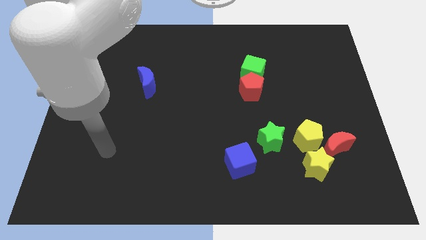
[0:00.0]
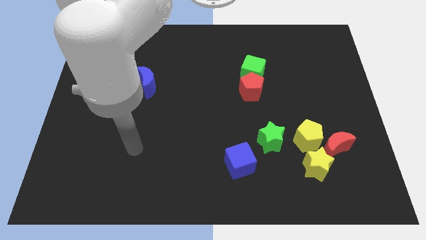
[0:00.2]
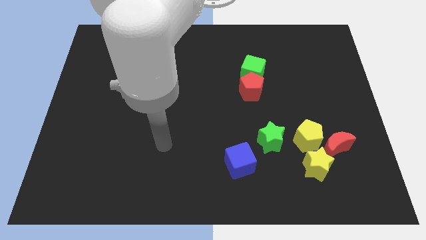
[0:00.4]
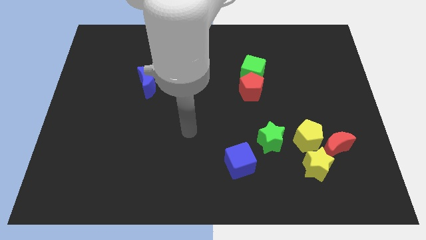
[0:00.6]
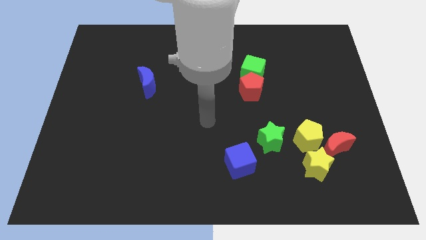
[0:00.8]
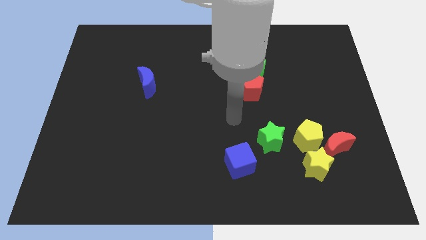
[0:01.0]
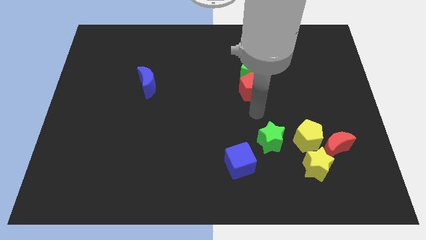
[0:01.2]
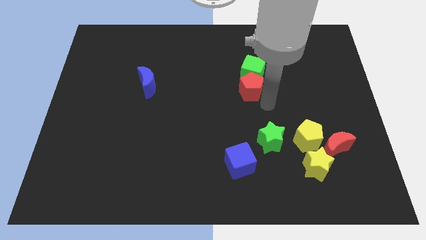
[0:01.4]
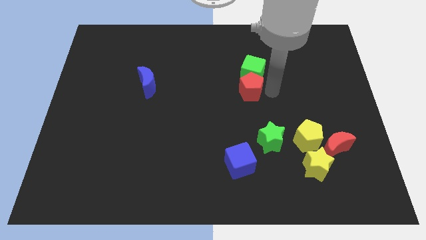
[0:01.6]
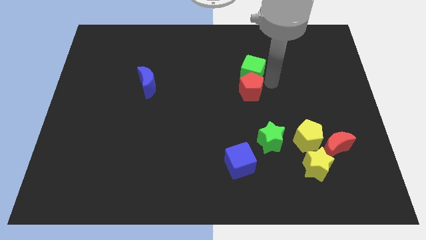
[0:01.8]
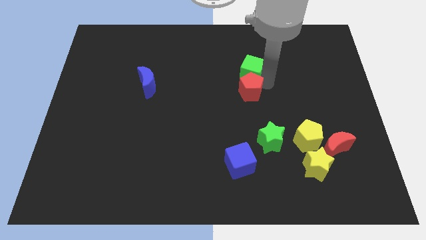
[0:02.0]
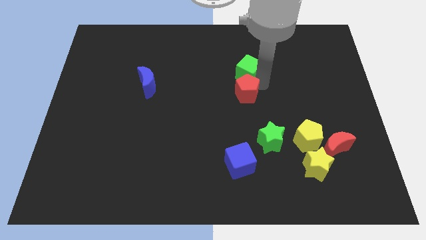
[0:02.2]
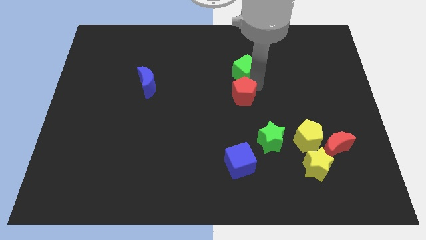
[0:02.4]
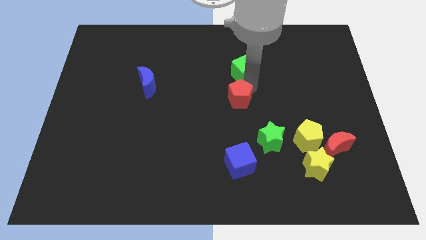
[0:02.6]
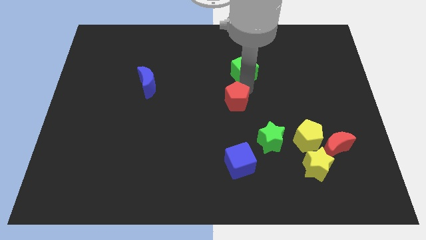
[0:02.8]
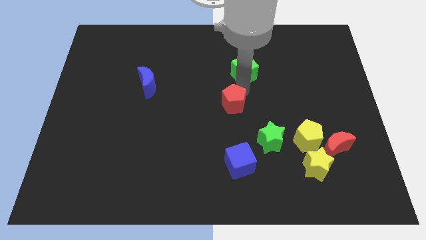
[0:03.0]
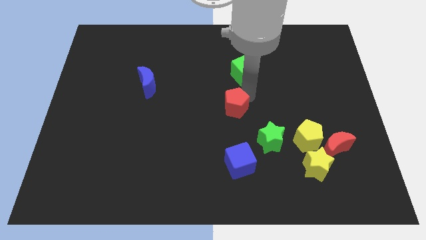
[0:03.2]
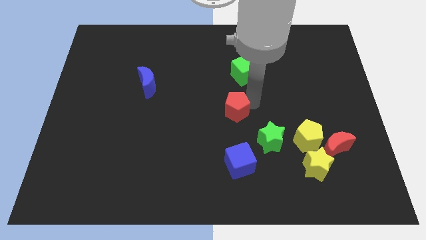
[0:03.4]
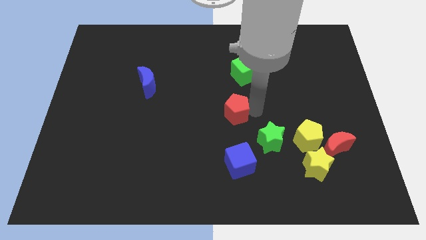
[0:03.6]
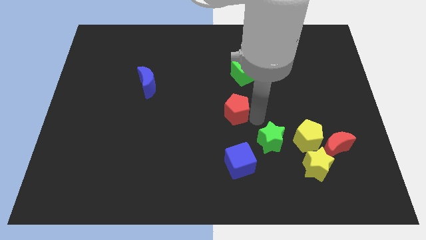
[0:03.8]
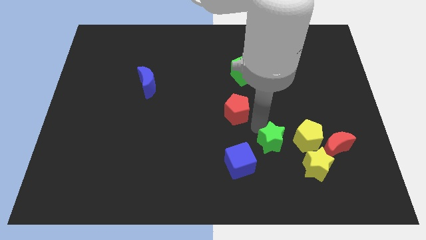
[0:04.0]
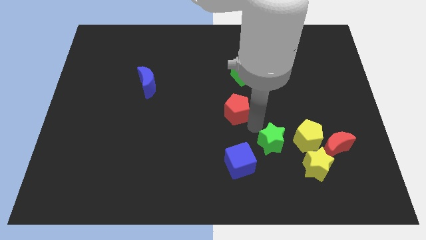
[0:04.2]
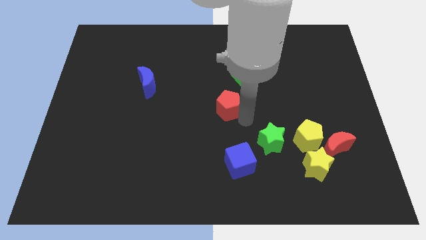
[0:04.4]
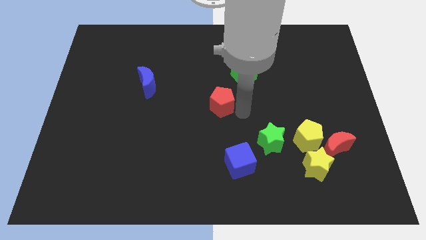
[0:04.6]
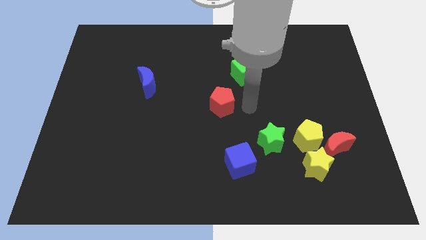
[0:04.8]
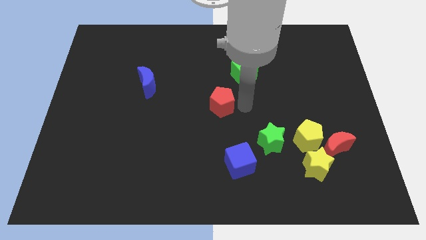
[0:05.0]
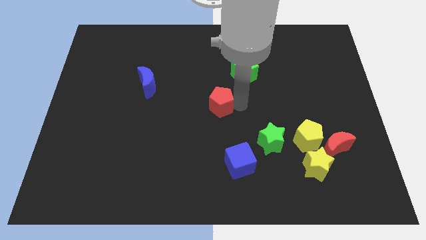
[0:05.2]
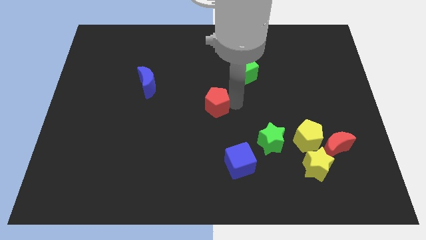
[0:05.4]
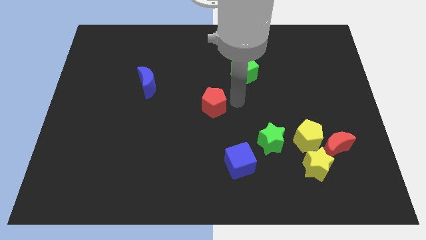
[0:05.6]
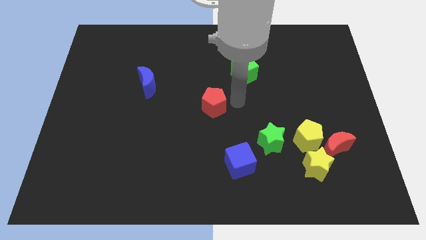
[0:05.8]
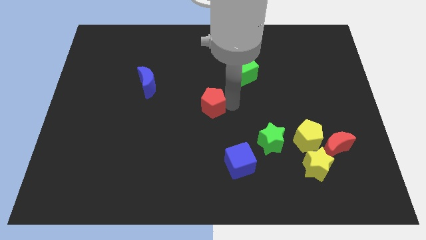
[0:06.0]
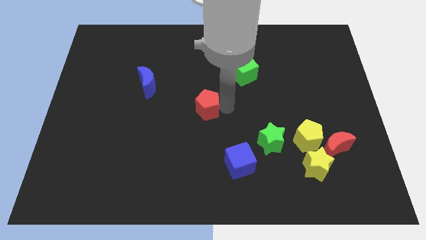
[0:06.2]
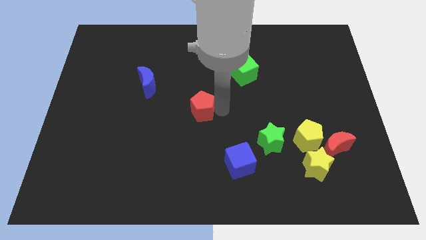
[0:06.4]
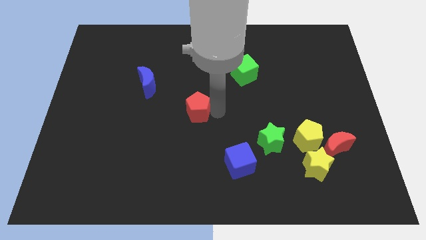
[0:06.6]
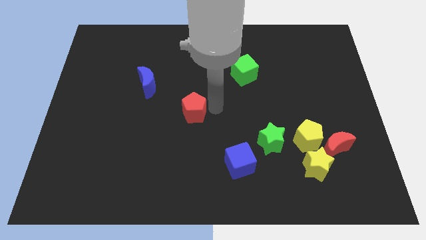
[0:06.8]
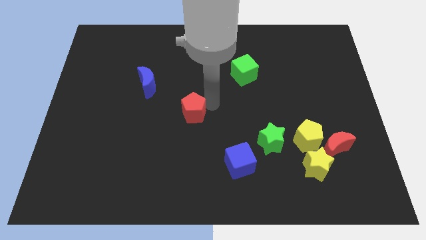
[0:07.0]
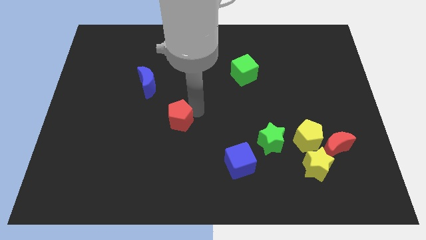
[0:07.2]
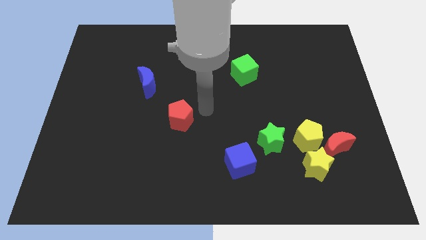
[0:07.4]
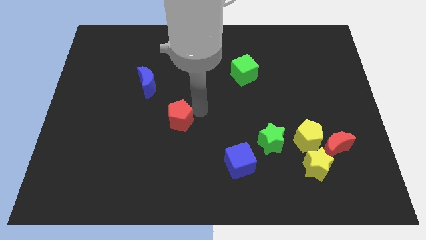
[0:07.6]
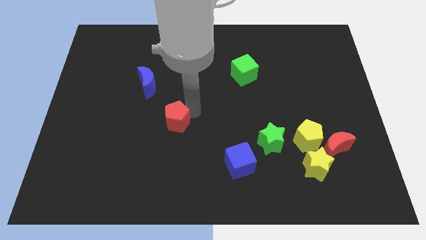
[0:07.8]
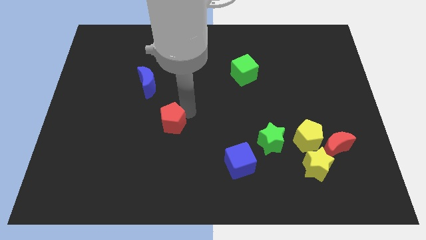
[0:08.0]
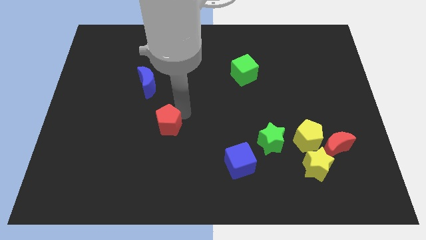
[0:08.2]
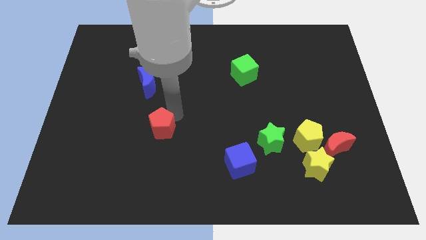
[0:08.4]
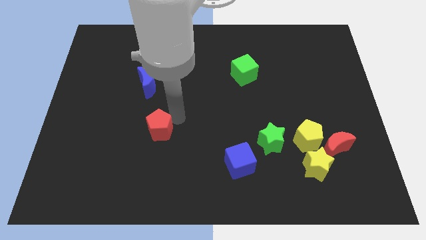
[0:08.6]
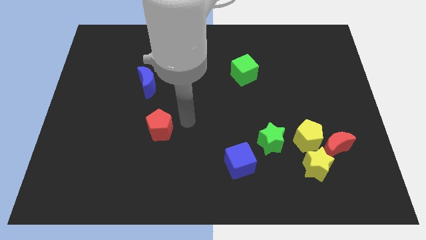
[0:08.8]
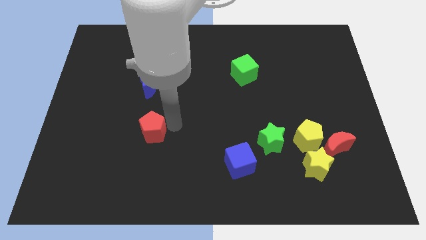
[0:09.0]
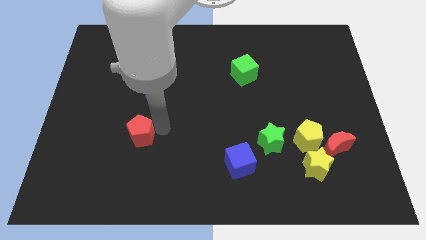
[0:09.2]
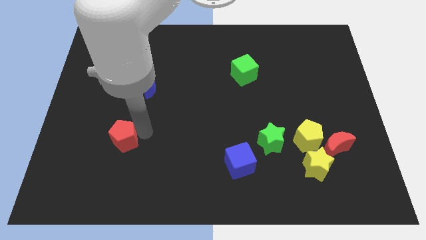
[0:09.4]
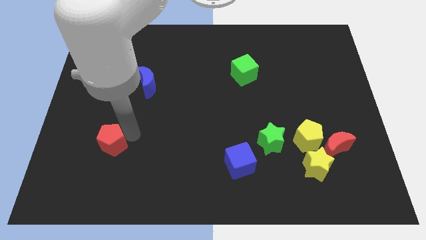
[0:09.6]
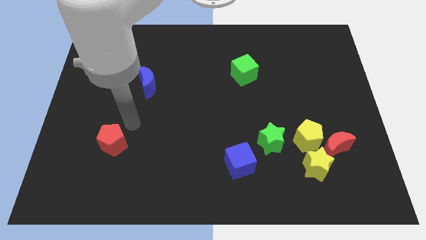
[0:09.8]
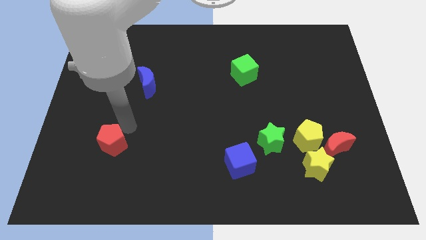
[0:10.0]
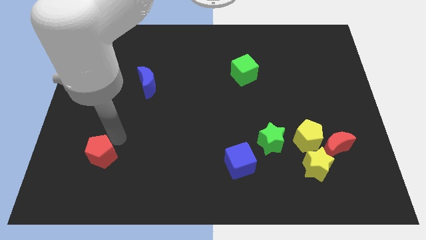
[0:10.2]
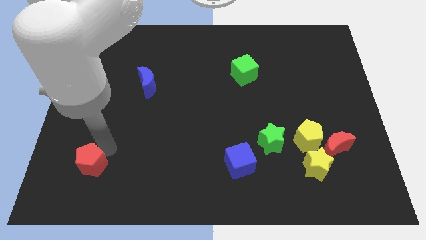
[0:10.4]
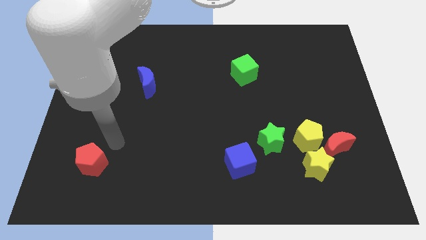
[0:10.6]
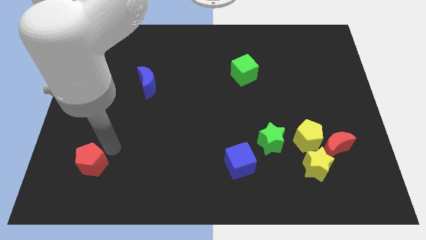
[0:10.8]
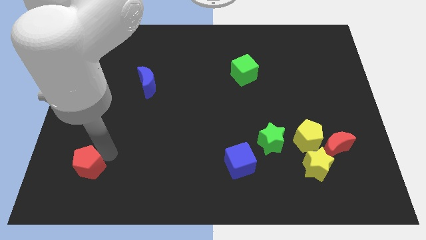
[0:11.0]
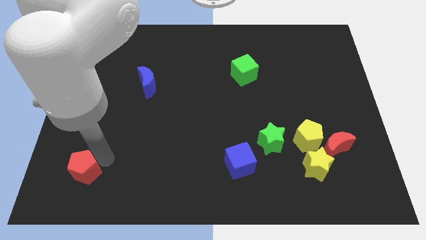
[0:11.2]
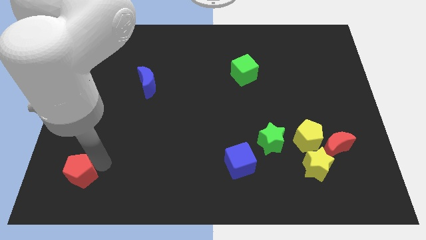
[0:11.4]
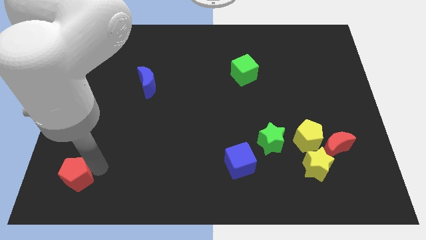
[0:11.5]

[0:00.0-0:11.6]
put the red pentagon to the lower left corner
